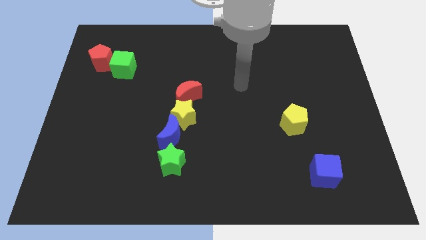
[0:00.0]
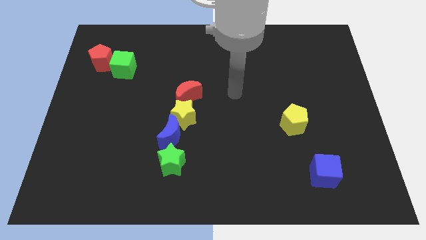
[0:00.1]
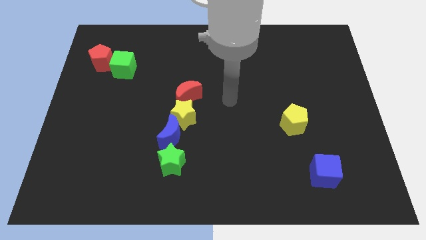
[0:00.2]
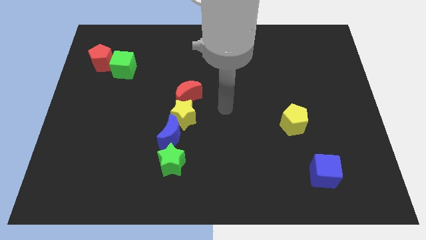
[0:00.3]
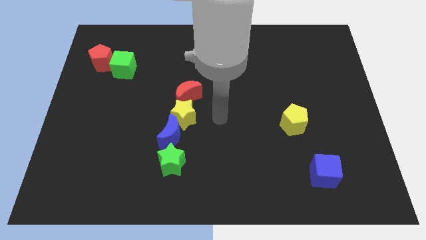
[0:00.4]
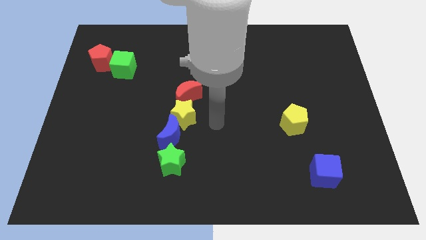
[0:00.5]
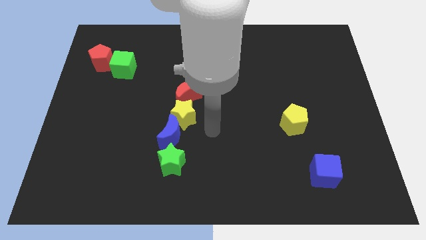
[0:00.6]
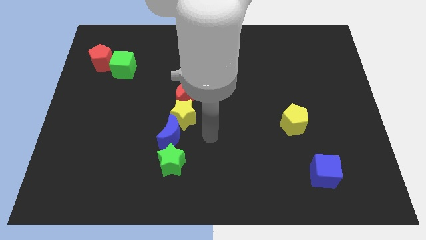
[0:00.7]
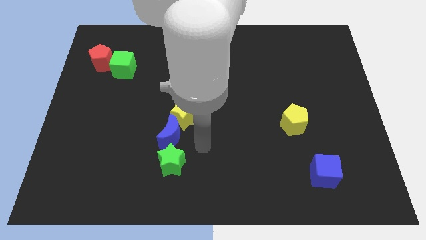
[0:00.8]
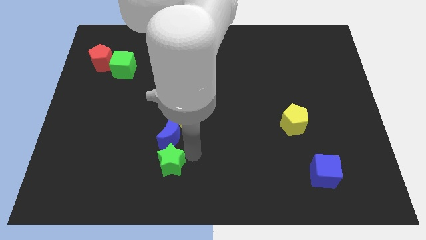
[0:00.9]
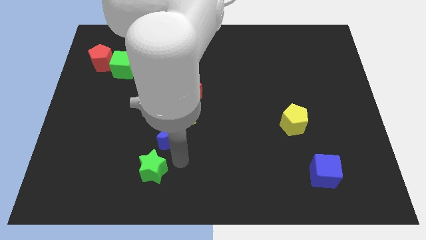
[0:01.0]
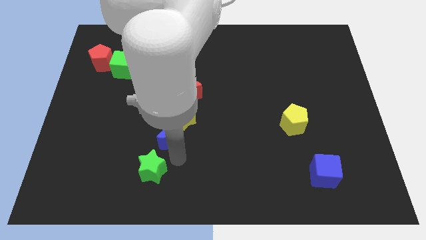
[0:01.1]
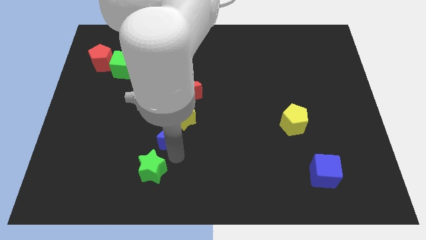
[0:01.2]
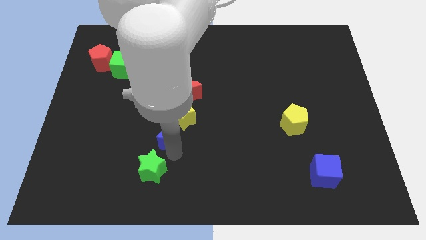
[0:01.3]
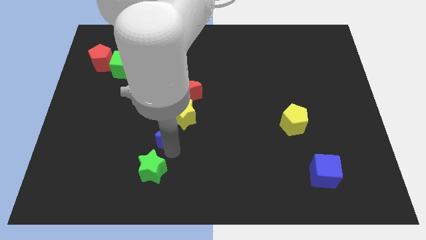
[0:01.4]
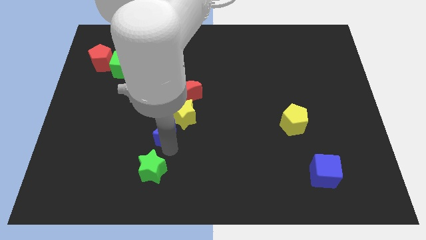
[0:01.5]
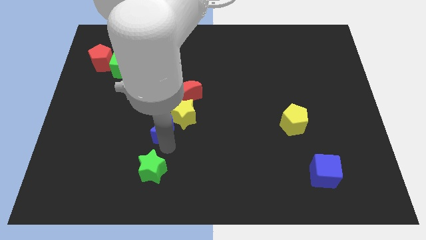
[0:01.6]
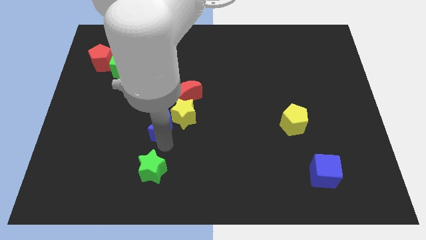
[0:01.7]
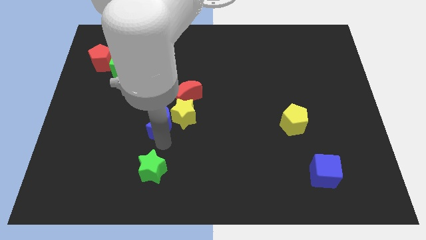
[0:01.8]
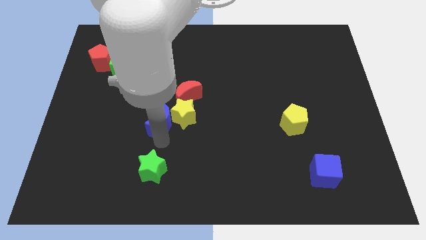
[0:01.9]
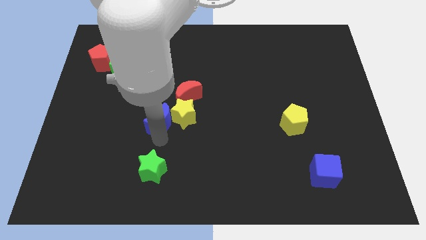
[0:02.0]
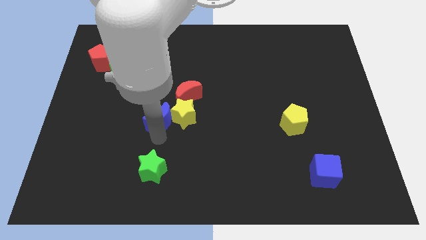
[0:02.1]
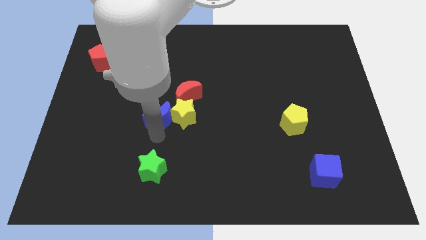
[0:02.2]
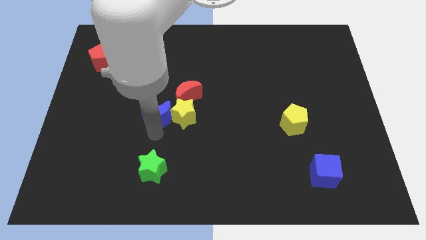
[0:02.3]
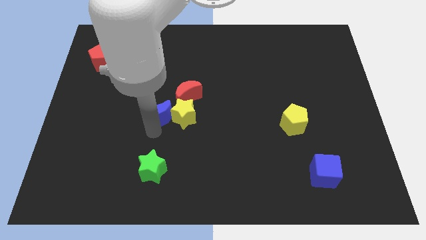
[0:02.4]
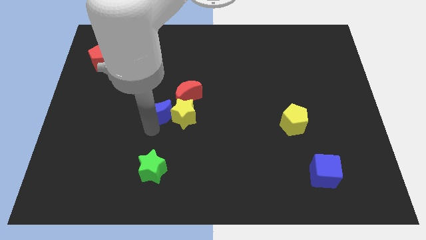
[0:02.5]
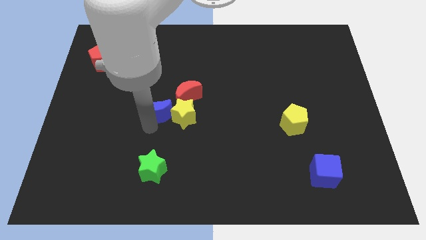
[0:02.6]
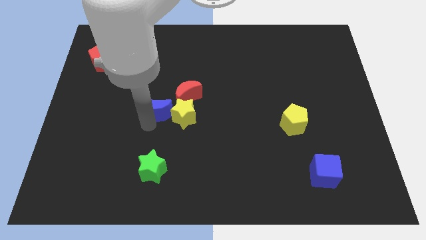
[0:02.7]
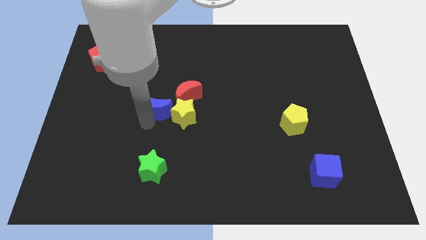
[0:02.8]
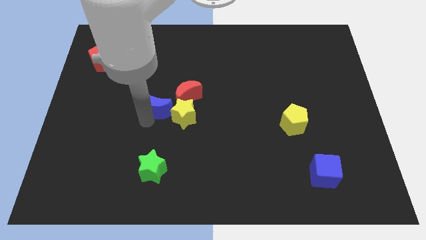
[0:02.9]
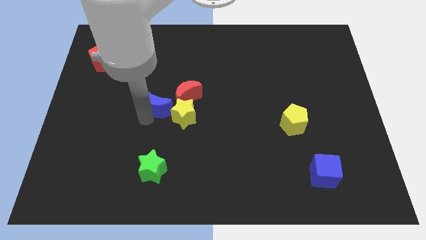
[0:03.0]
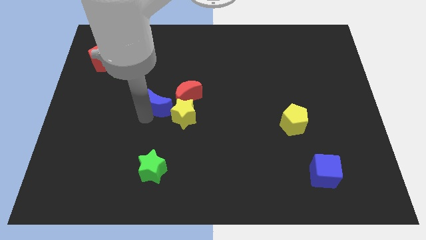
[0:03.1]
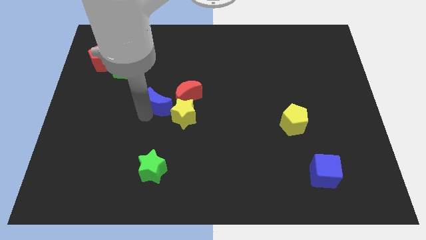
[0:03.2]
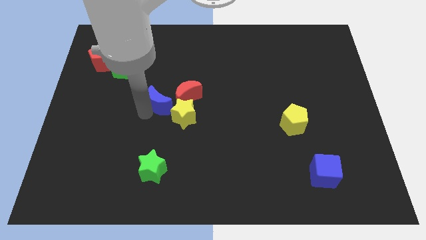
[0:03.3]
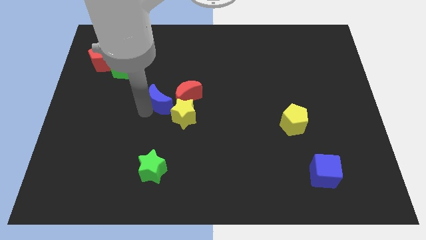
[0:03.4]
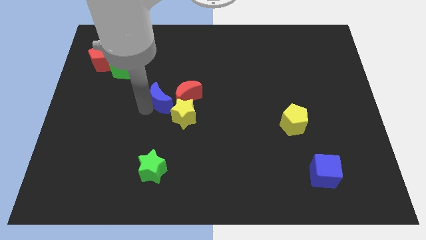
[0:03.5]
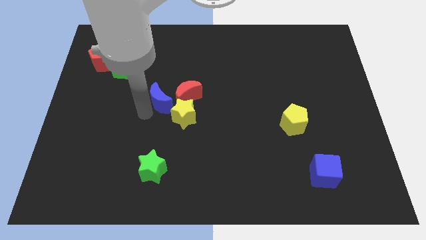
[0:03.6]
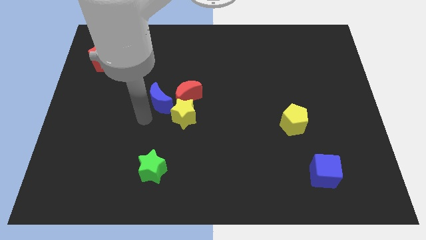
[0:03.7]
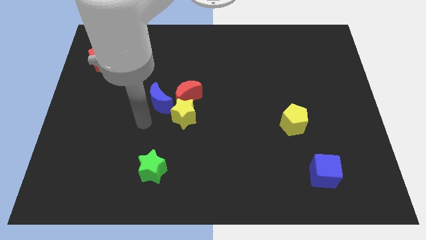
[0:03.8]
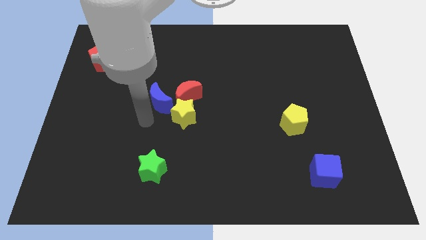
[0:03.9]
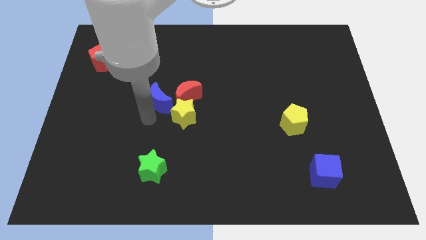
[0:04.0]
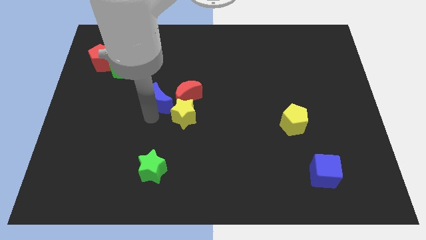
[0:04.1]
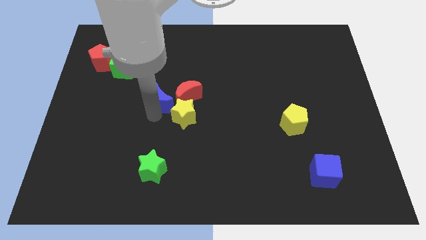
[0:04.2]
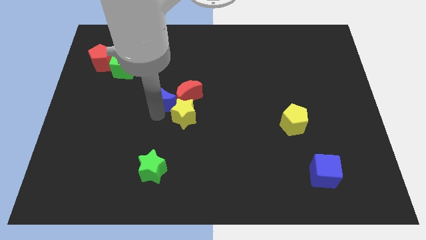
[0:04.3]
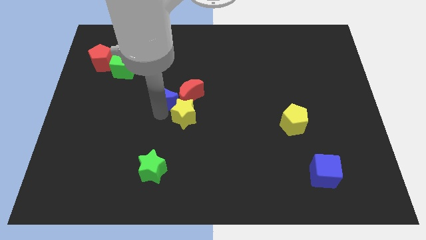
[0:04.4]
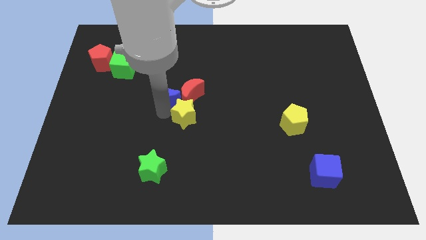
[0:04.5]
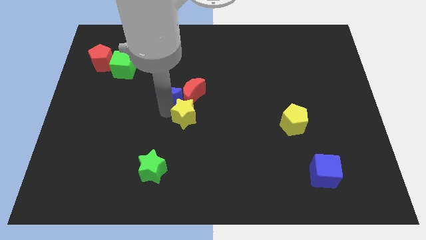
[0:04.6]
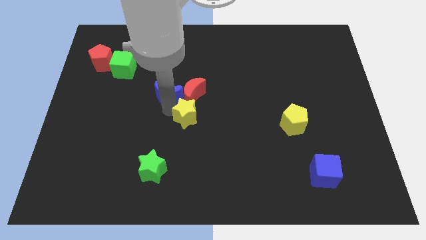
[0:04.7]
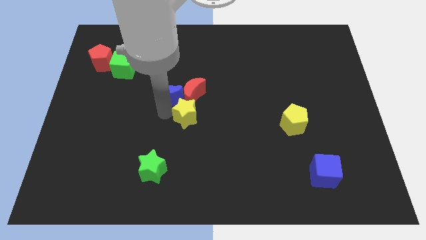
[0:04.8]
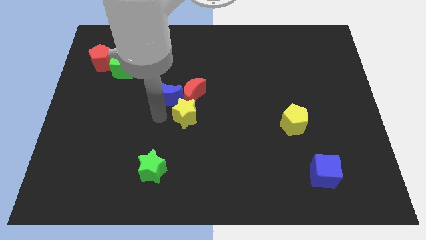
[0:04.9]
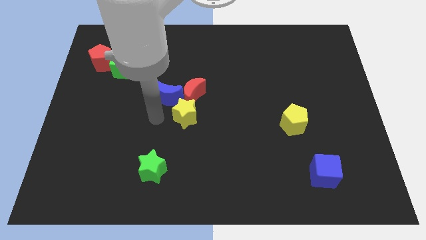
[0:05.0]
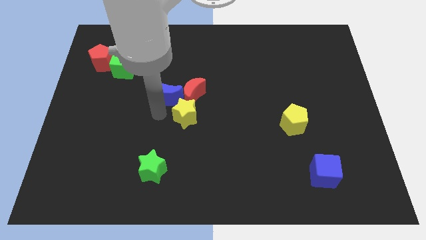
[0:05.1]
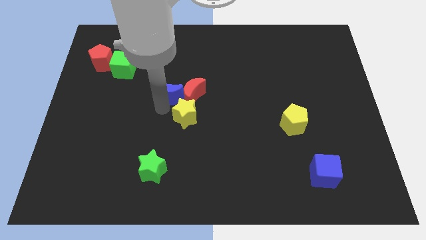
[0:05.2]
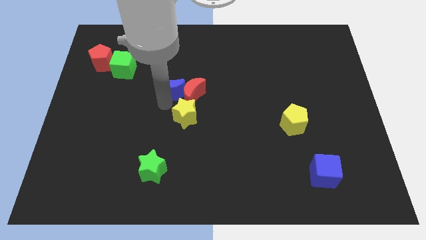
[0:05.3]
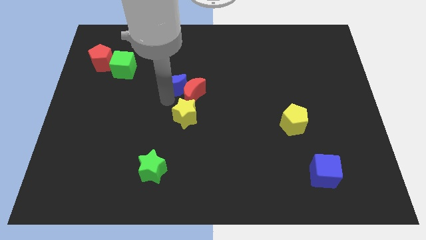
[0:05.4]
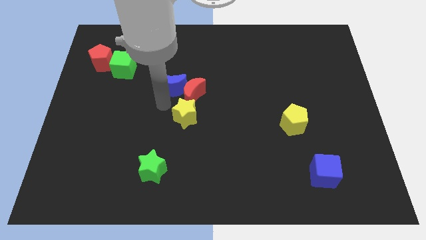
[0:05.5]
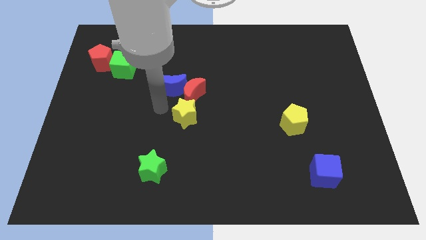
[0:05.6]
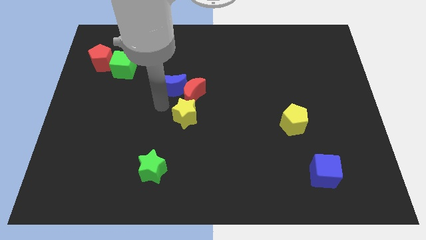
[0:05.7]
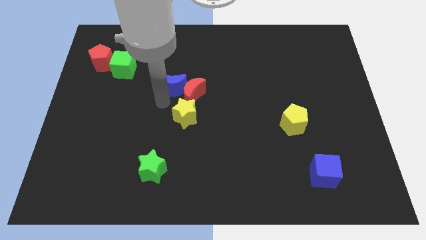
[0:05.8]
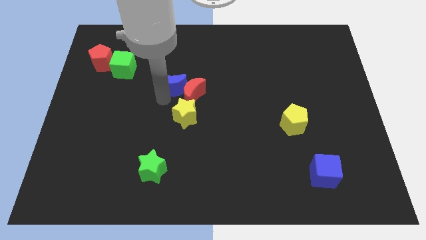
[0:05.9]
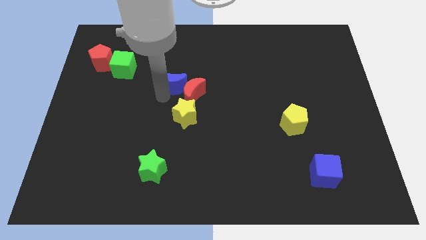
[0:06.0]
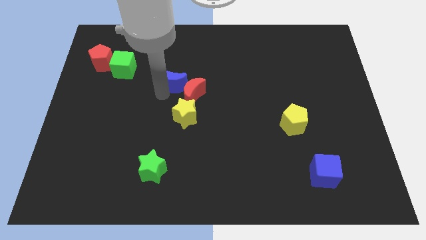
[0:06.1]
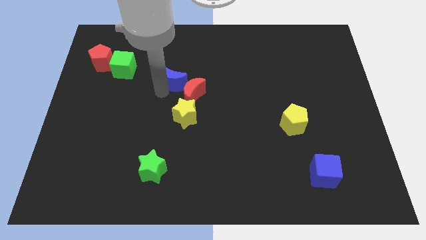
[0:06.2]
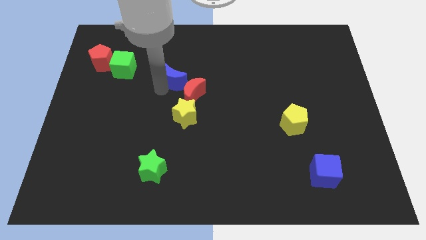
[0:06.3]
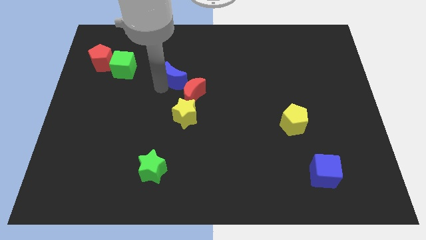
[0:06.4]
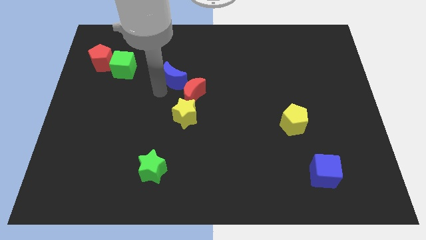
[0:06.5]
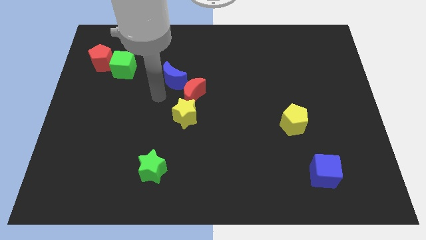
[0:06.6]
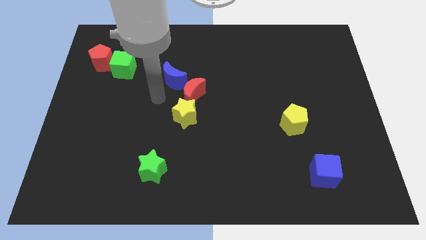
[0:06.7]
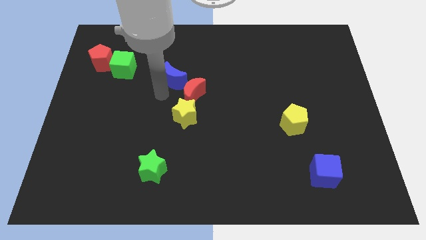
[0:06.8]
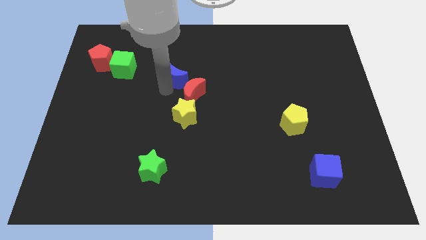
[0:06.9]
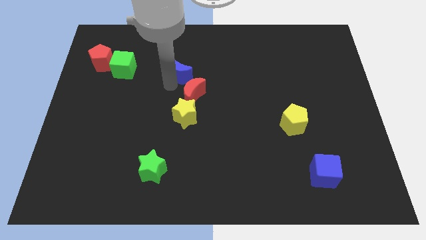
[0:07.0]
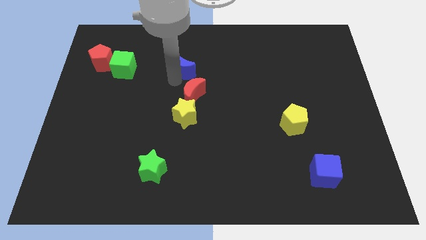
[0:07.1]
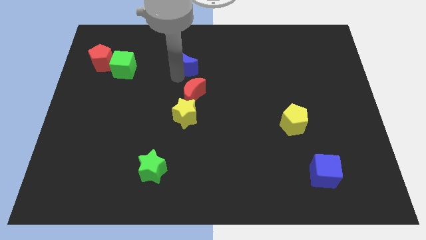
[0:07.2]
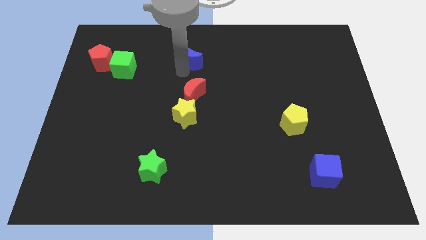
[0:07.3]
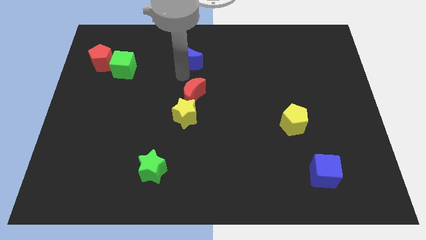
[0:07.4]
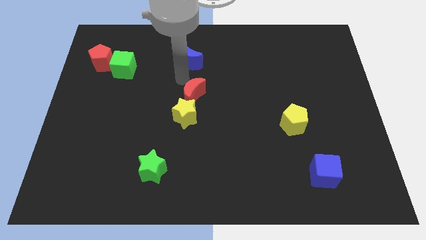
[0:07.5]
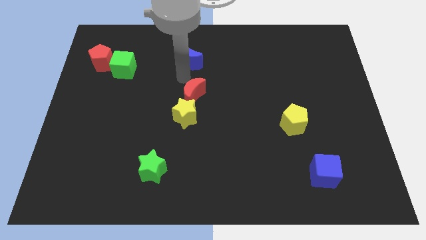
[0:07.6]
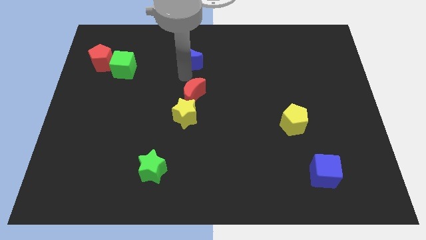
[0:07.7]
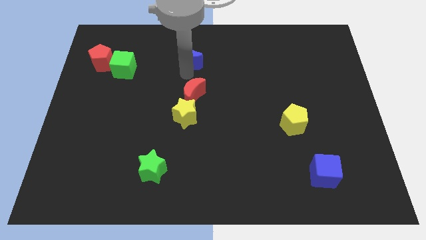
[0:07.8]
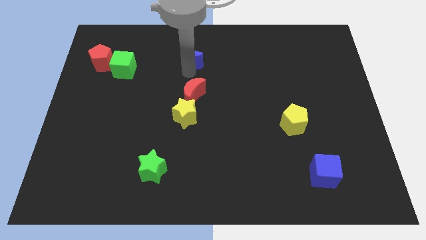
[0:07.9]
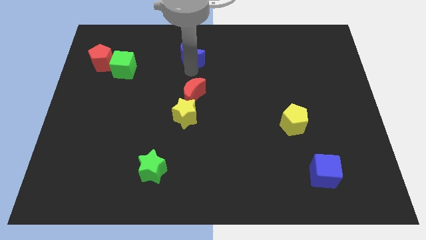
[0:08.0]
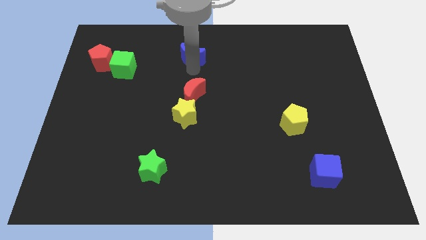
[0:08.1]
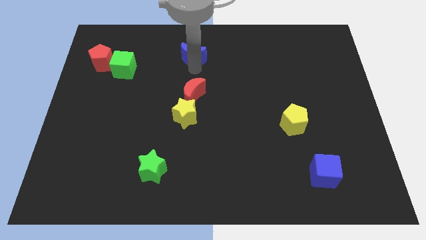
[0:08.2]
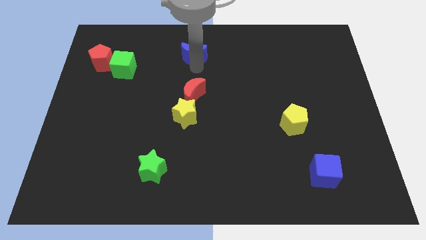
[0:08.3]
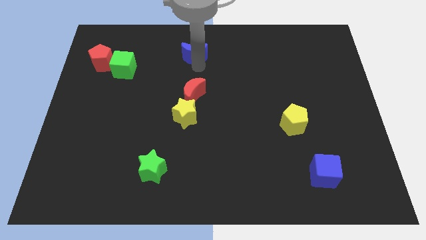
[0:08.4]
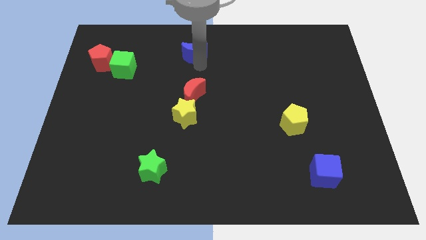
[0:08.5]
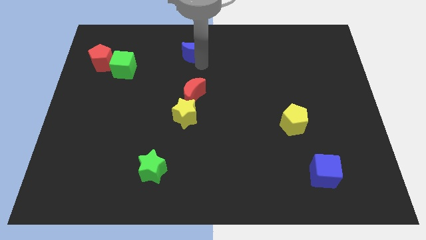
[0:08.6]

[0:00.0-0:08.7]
slide the blue moon to the top side
